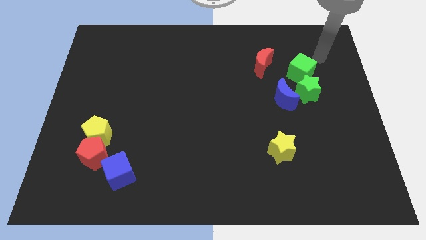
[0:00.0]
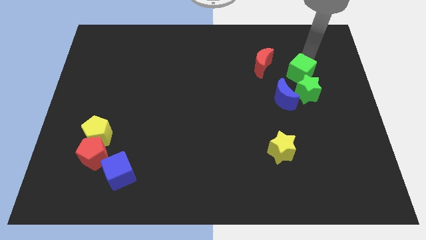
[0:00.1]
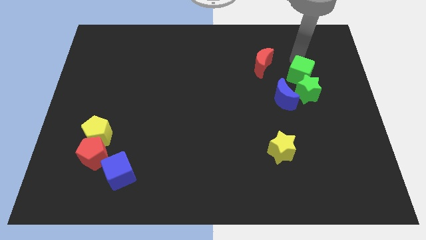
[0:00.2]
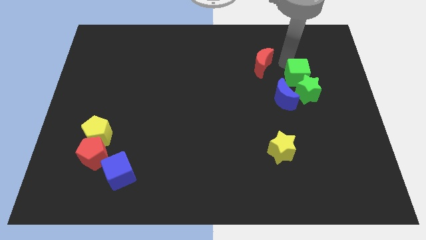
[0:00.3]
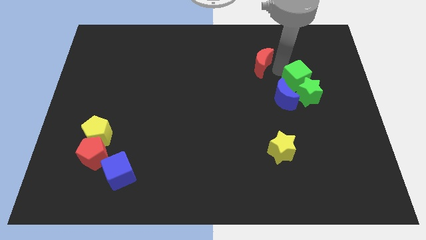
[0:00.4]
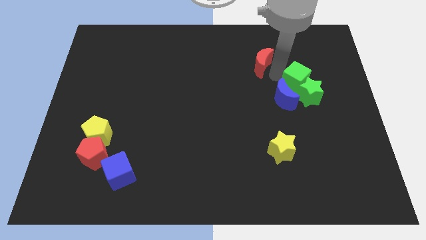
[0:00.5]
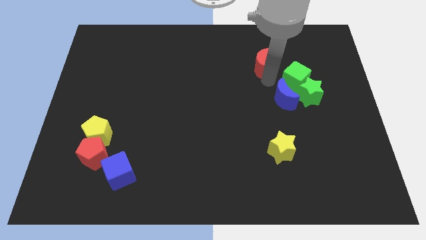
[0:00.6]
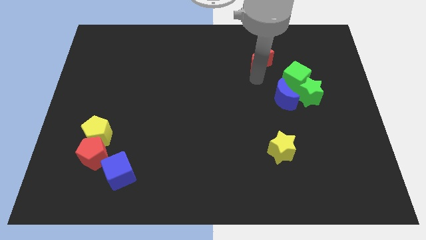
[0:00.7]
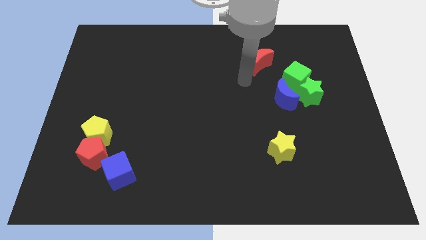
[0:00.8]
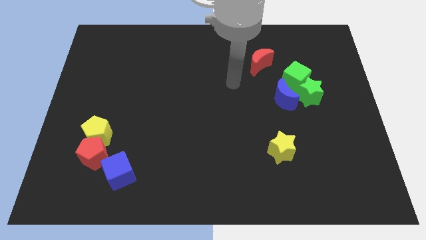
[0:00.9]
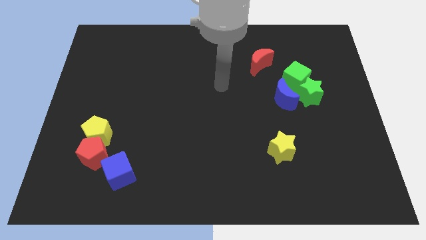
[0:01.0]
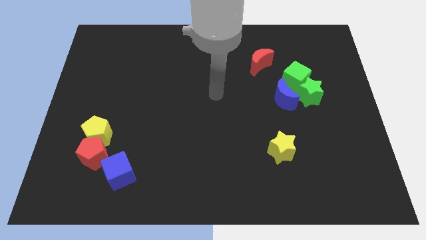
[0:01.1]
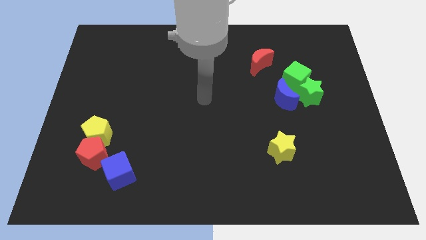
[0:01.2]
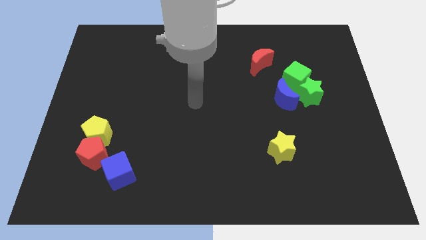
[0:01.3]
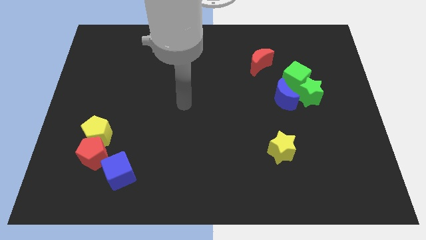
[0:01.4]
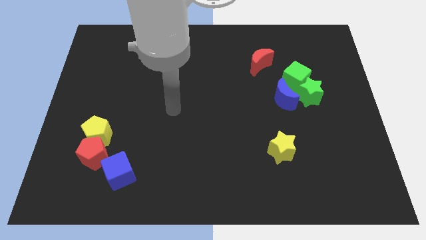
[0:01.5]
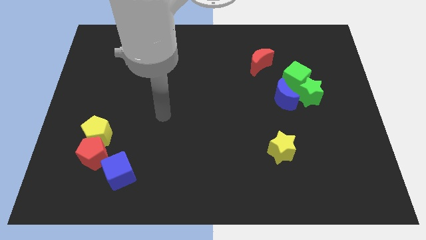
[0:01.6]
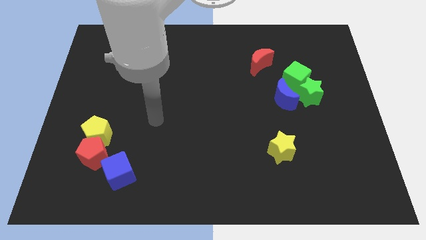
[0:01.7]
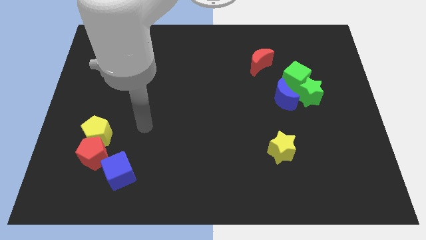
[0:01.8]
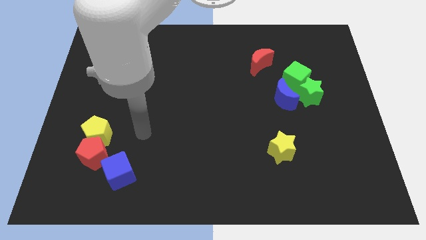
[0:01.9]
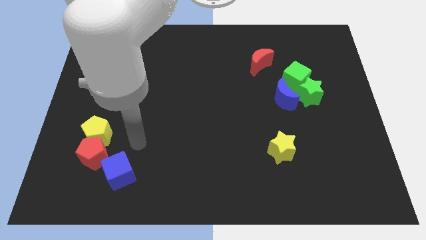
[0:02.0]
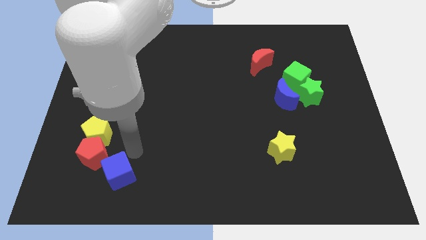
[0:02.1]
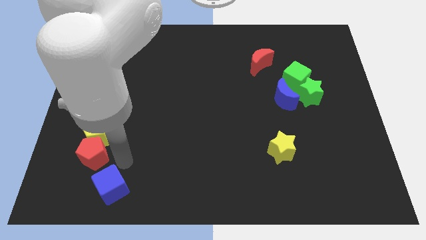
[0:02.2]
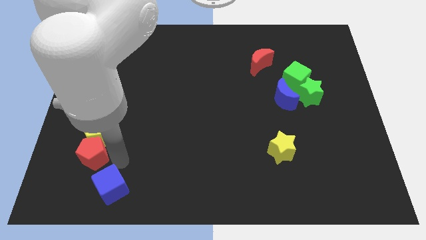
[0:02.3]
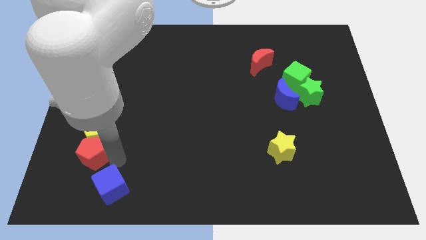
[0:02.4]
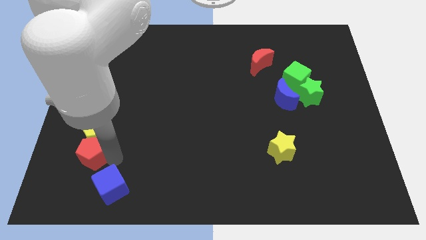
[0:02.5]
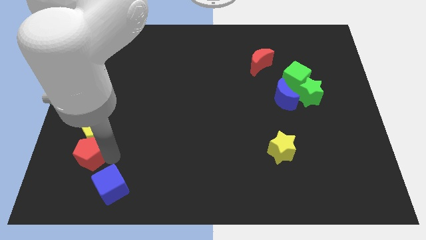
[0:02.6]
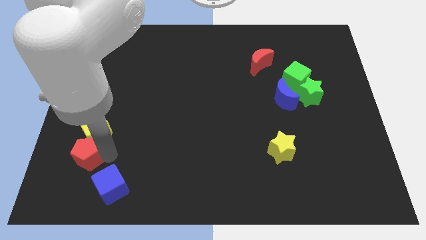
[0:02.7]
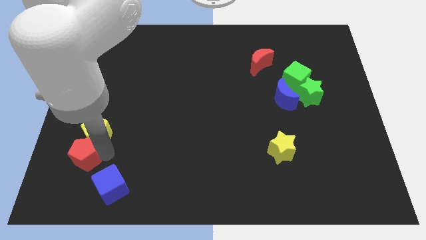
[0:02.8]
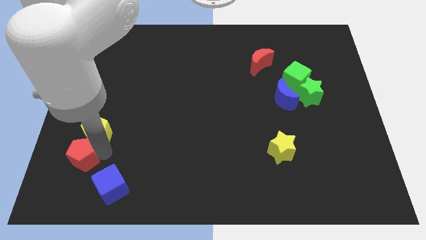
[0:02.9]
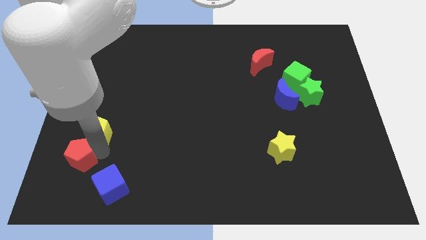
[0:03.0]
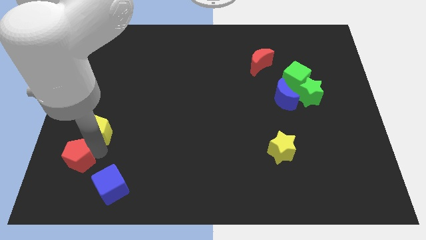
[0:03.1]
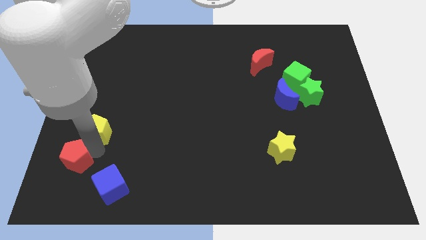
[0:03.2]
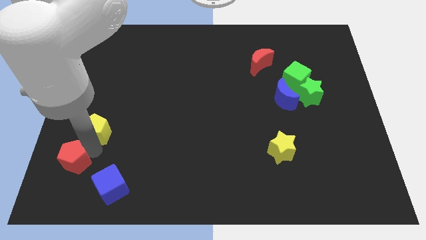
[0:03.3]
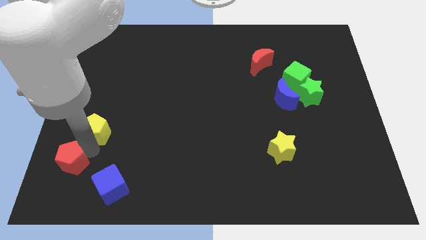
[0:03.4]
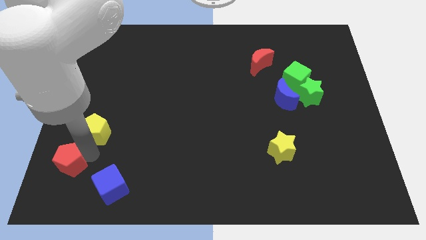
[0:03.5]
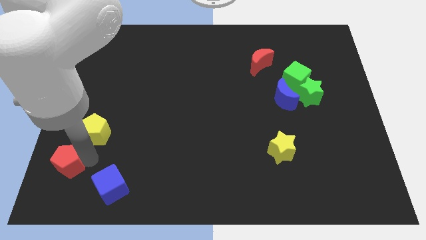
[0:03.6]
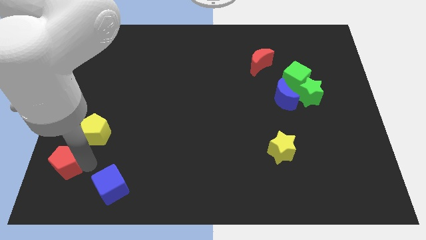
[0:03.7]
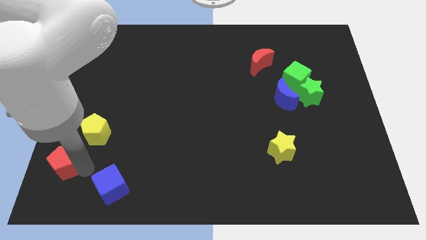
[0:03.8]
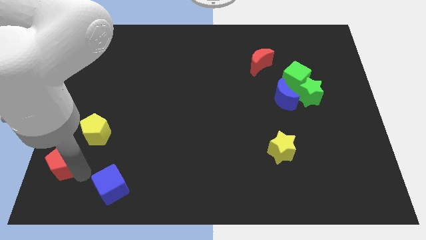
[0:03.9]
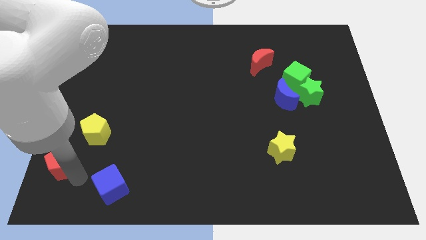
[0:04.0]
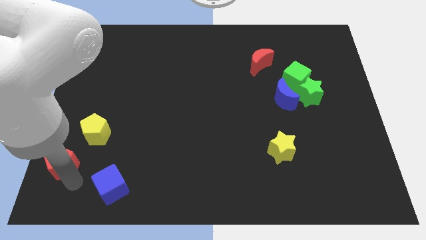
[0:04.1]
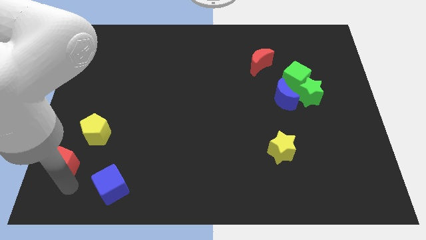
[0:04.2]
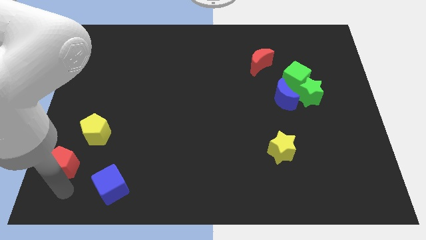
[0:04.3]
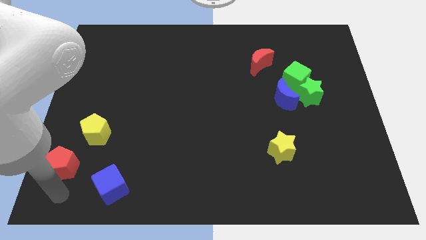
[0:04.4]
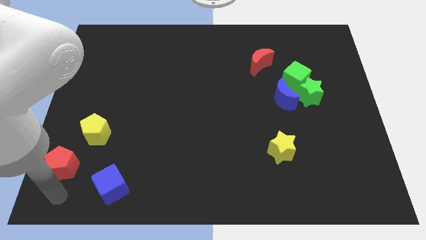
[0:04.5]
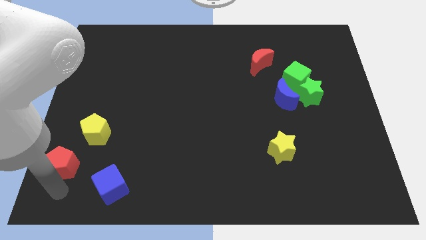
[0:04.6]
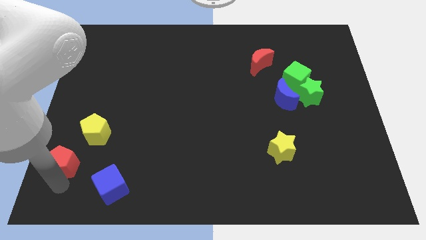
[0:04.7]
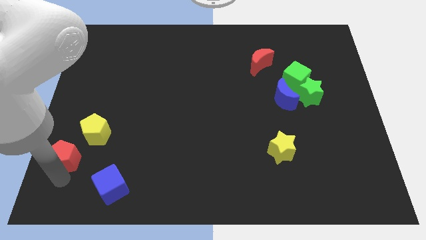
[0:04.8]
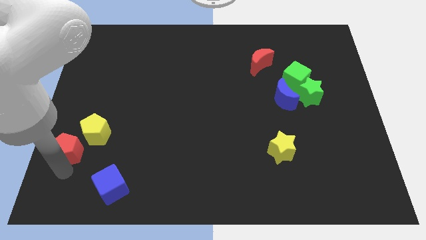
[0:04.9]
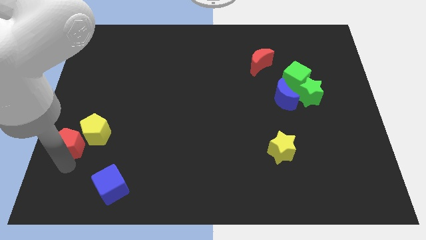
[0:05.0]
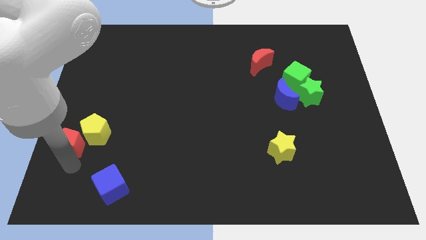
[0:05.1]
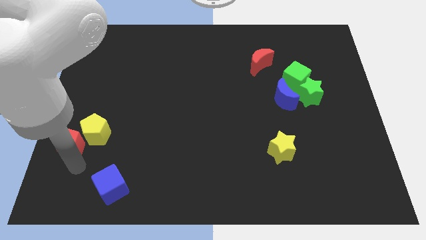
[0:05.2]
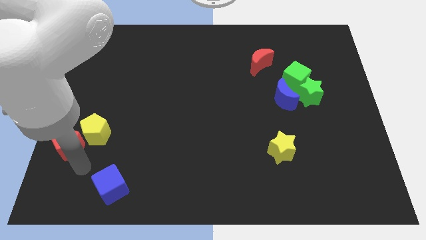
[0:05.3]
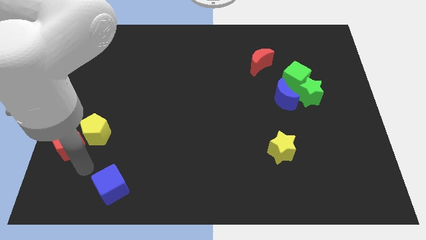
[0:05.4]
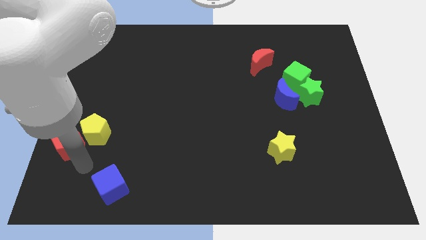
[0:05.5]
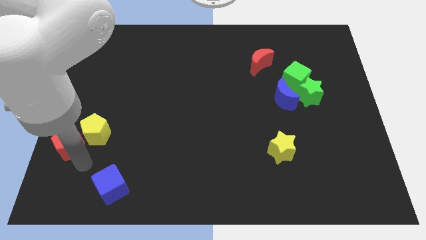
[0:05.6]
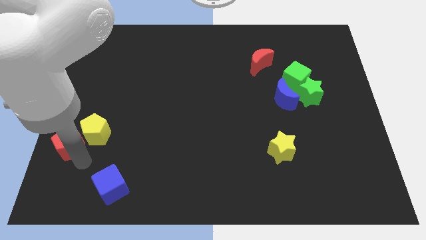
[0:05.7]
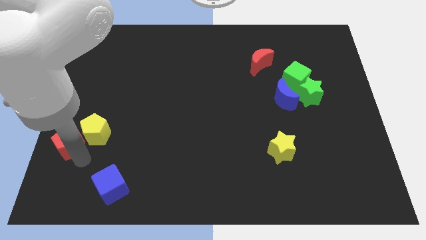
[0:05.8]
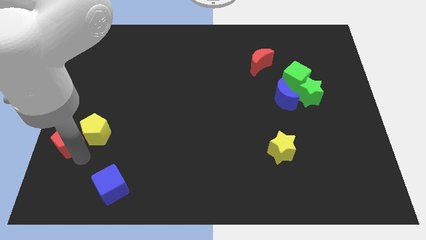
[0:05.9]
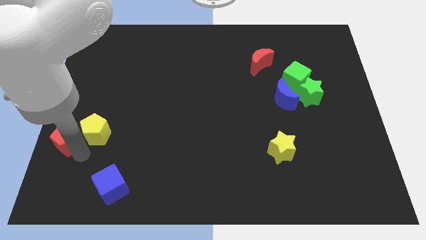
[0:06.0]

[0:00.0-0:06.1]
push the red pentagon to the center left

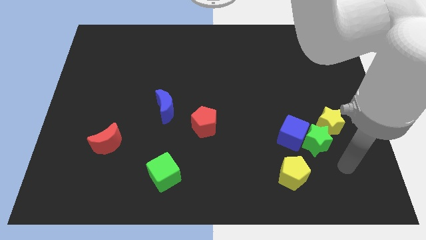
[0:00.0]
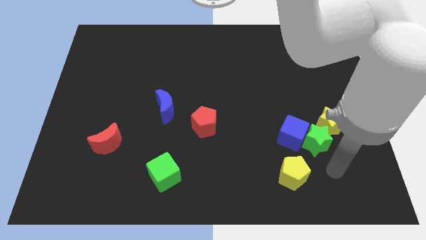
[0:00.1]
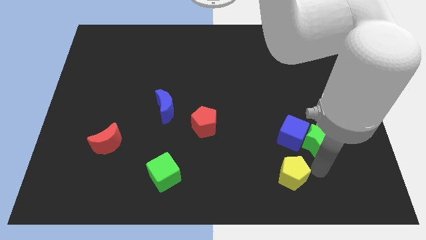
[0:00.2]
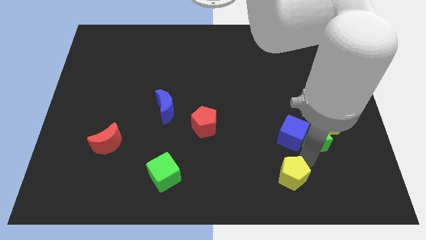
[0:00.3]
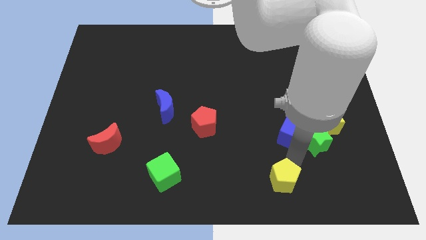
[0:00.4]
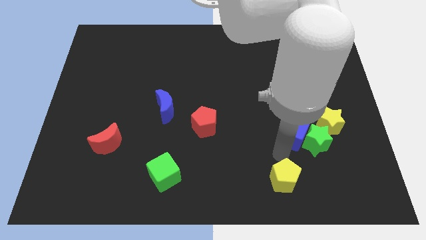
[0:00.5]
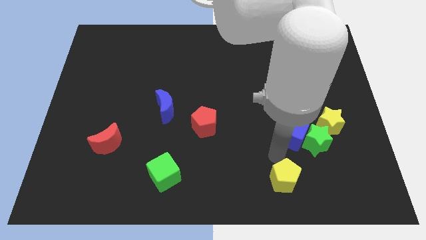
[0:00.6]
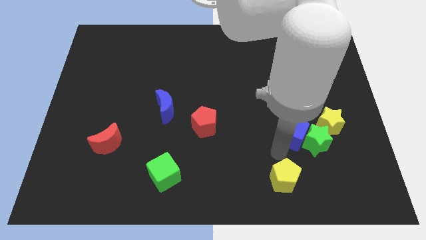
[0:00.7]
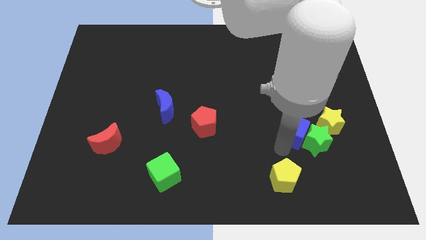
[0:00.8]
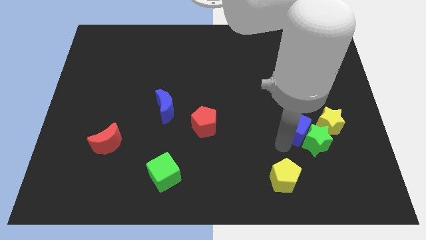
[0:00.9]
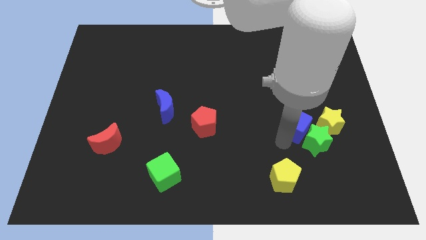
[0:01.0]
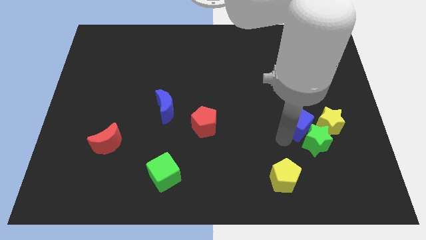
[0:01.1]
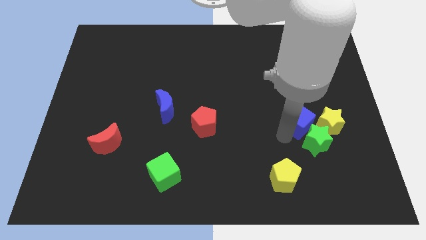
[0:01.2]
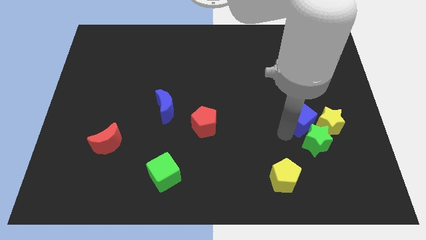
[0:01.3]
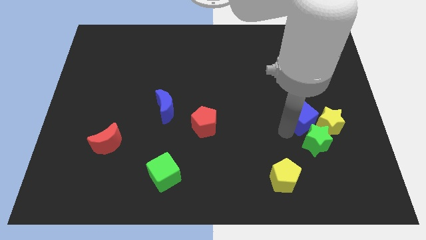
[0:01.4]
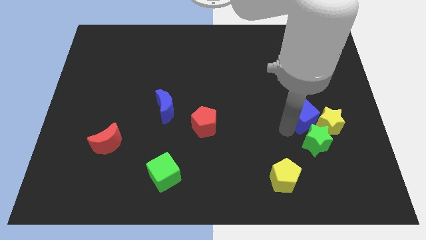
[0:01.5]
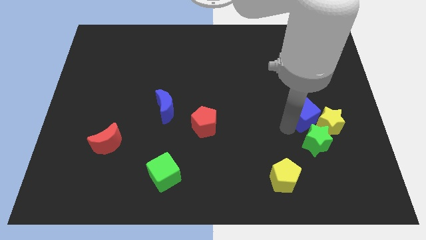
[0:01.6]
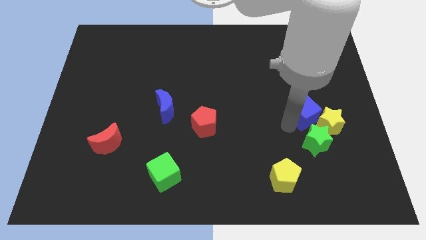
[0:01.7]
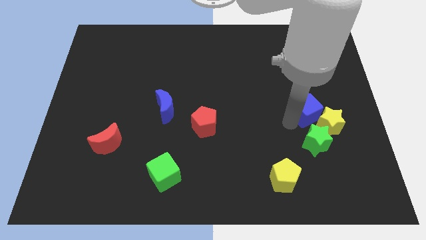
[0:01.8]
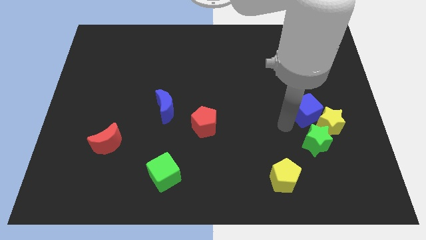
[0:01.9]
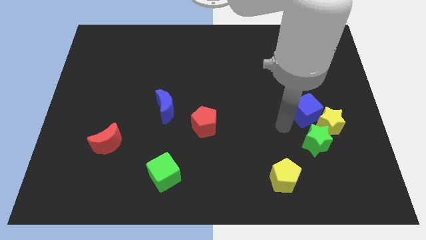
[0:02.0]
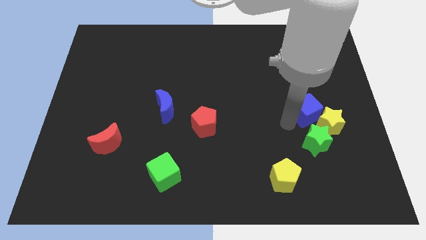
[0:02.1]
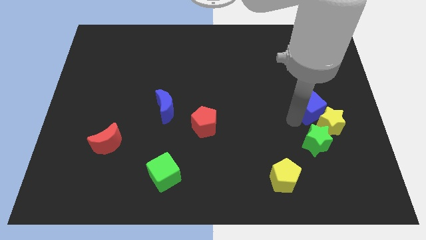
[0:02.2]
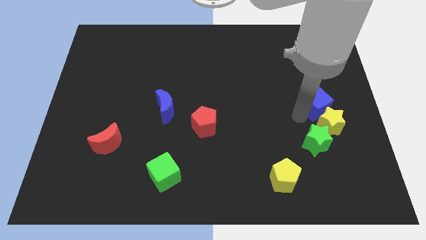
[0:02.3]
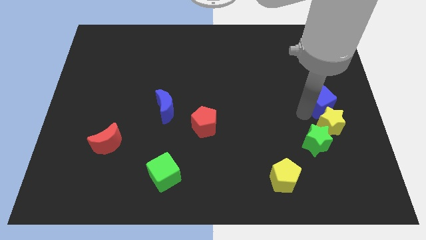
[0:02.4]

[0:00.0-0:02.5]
put the blue cube to the right side of the board
